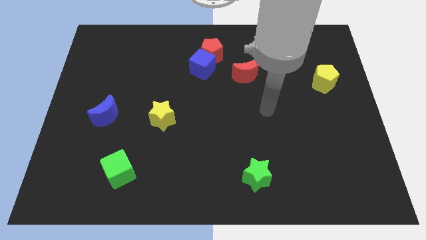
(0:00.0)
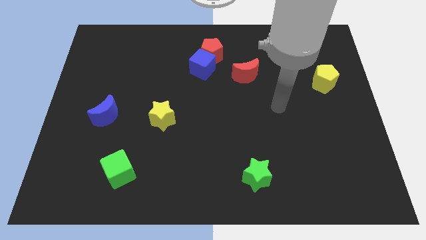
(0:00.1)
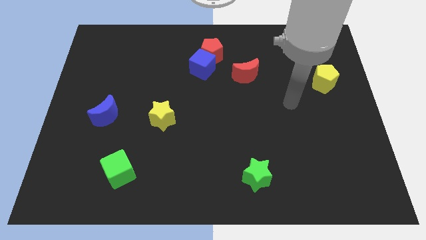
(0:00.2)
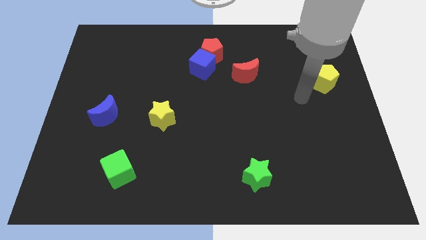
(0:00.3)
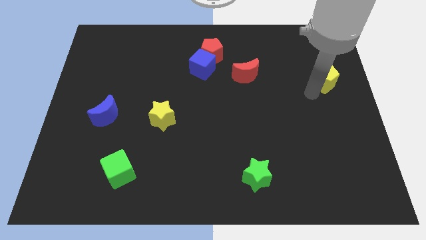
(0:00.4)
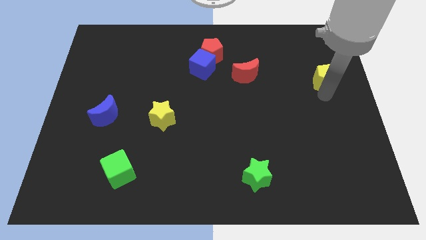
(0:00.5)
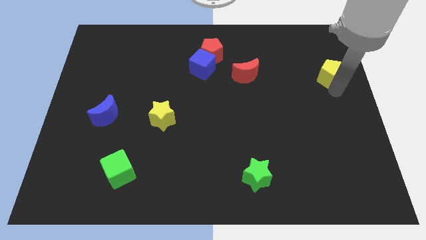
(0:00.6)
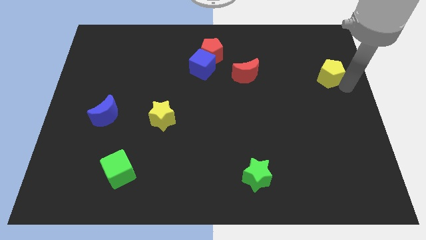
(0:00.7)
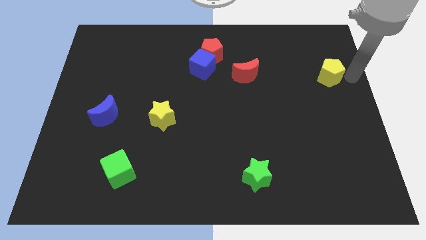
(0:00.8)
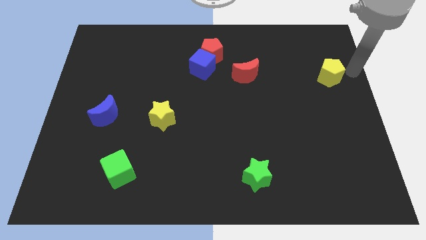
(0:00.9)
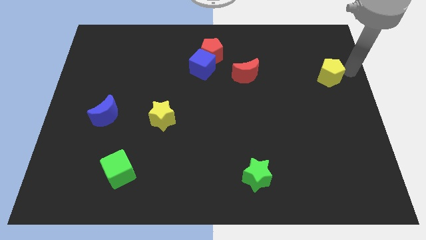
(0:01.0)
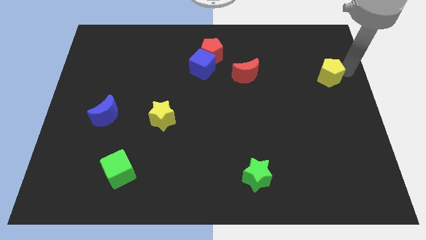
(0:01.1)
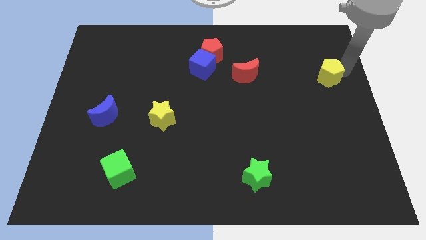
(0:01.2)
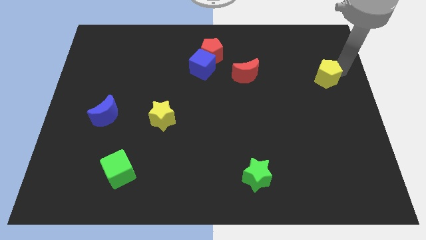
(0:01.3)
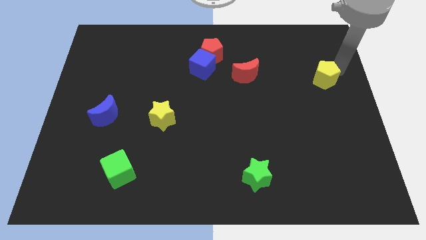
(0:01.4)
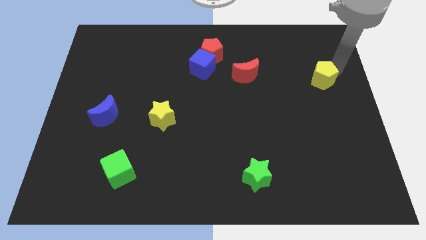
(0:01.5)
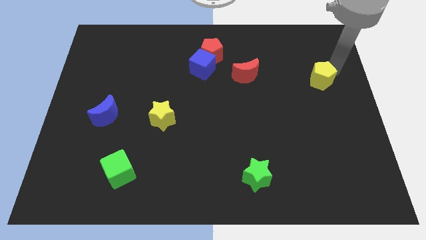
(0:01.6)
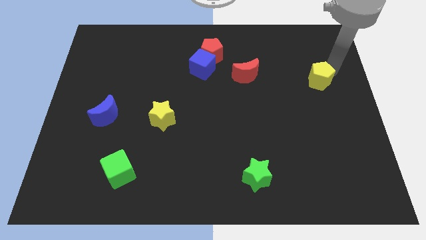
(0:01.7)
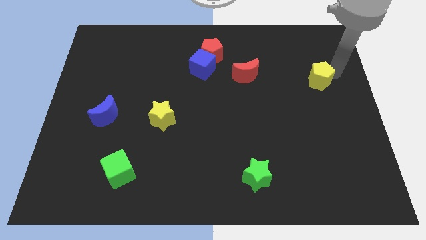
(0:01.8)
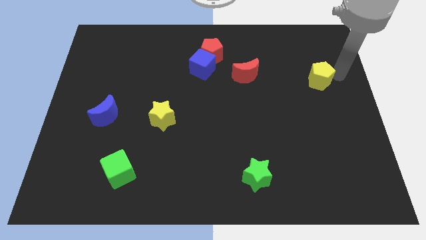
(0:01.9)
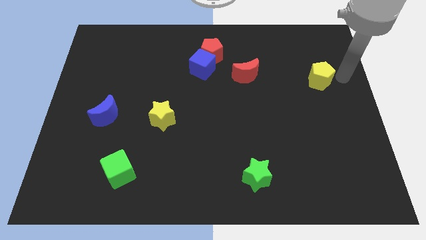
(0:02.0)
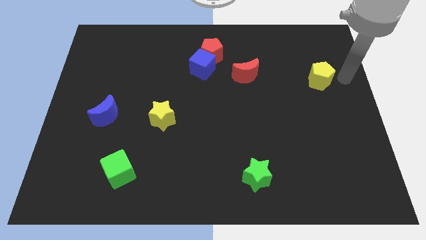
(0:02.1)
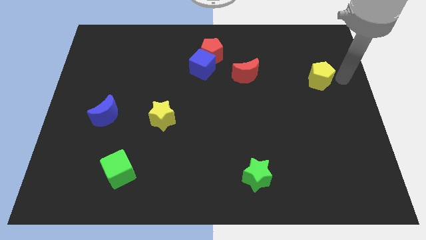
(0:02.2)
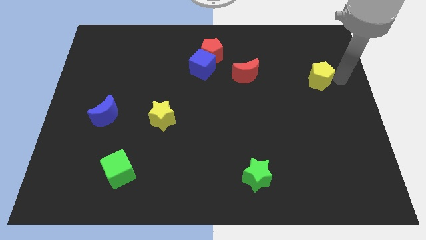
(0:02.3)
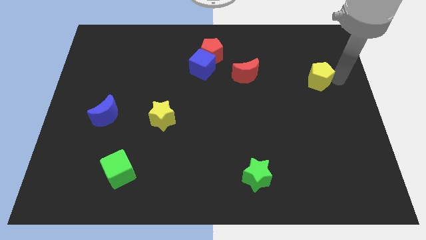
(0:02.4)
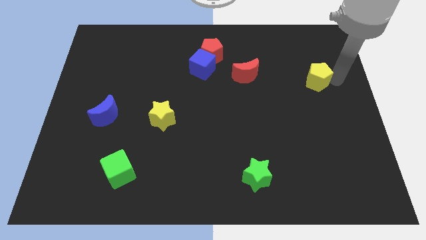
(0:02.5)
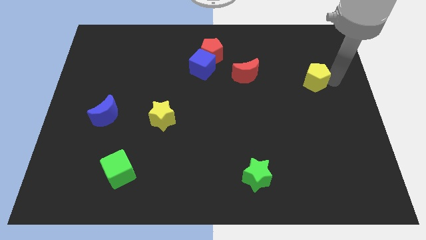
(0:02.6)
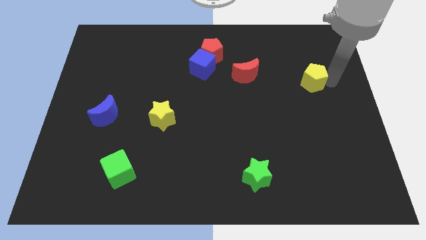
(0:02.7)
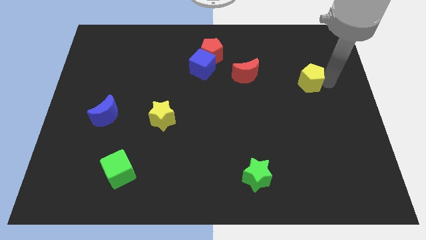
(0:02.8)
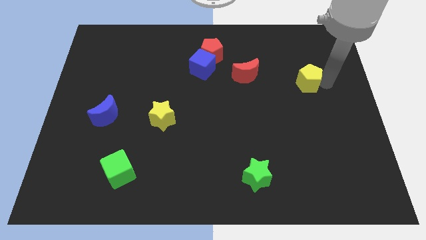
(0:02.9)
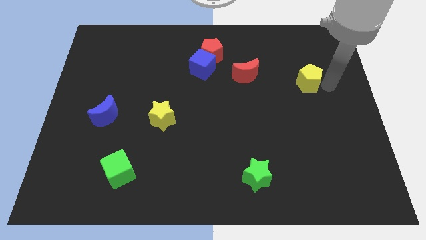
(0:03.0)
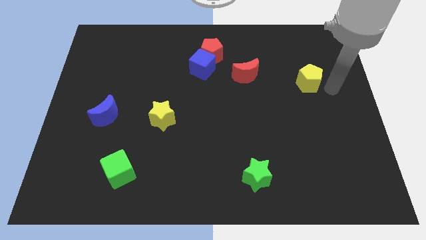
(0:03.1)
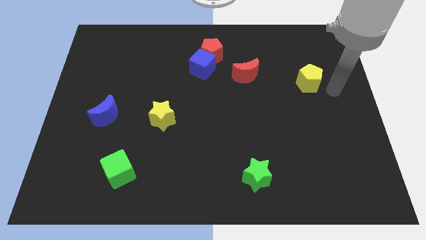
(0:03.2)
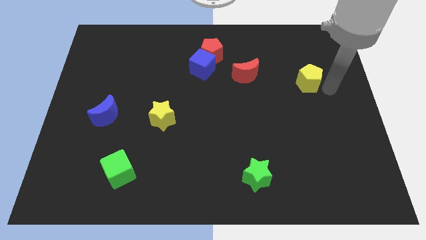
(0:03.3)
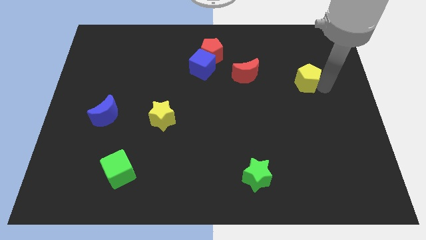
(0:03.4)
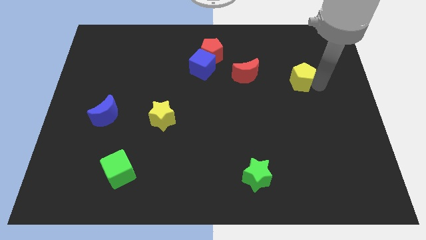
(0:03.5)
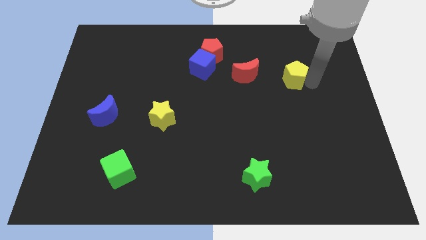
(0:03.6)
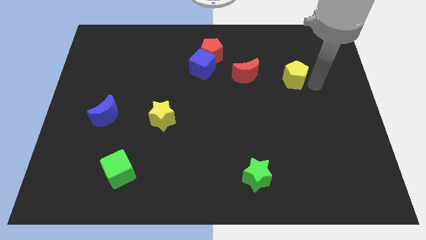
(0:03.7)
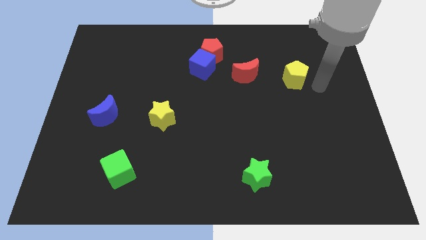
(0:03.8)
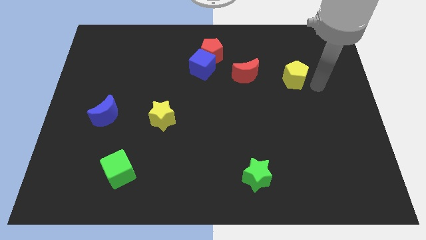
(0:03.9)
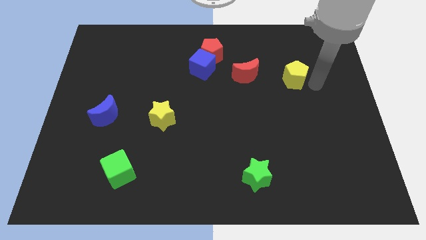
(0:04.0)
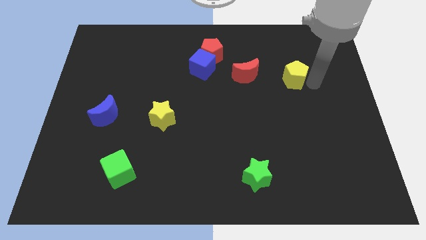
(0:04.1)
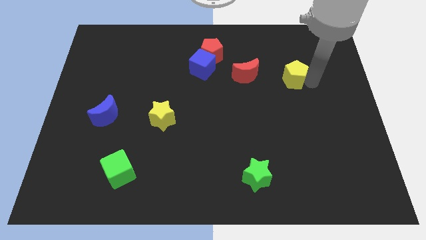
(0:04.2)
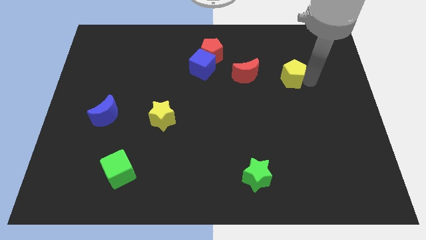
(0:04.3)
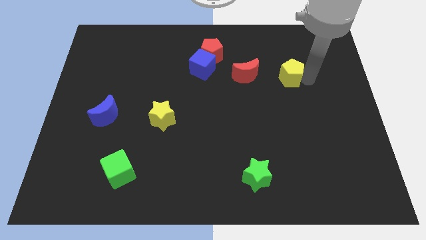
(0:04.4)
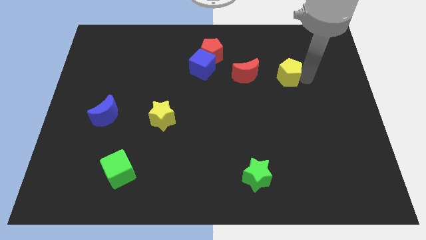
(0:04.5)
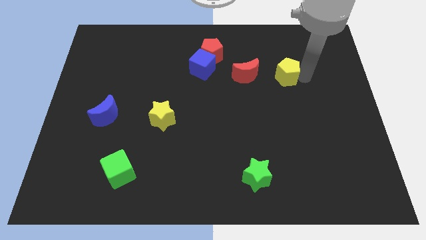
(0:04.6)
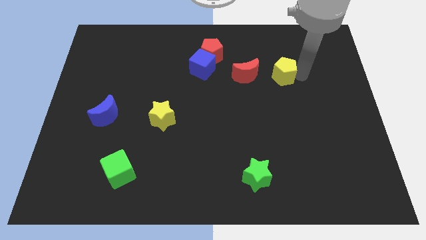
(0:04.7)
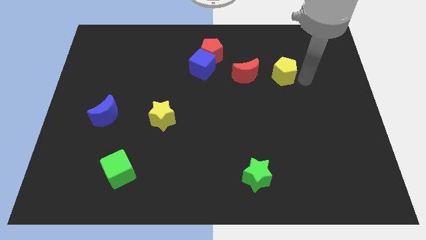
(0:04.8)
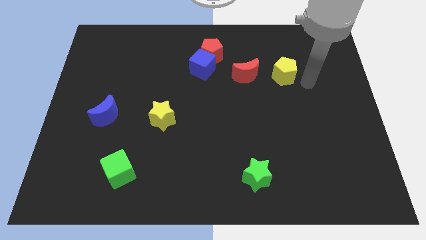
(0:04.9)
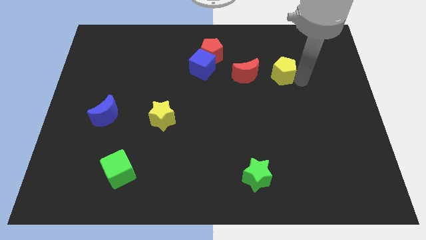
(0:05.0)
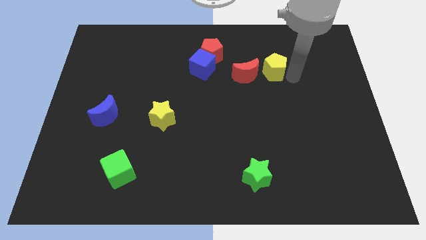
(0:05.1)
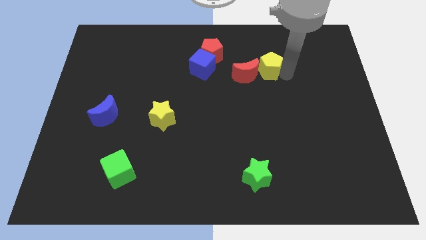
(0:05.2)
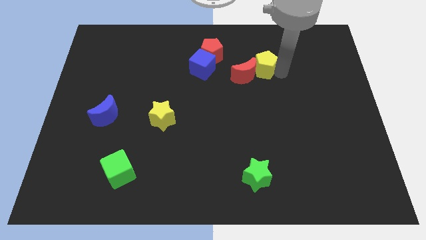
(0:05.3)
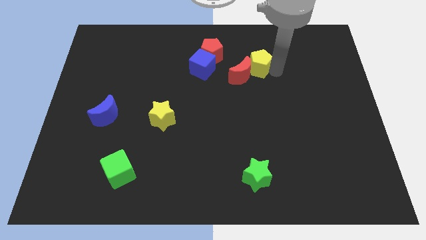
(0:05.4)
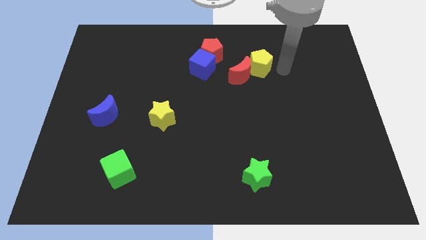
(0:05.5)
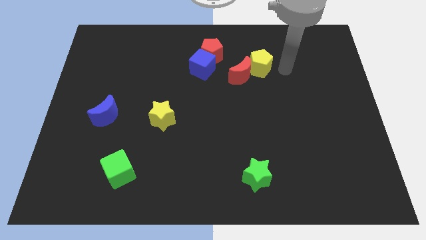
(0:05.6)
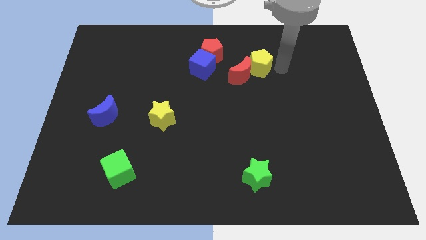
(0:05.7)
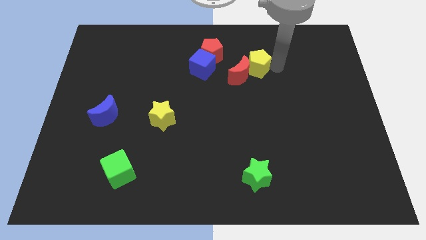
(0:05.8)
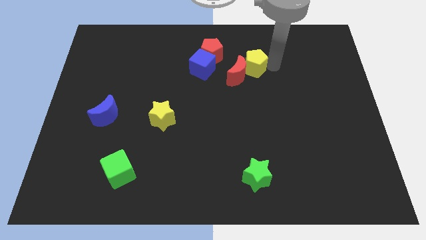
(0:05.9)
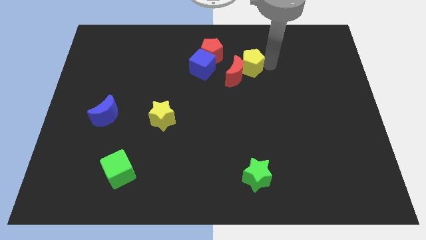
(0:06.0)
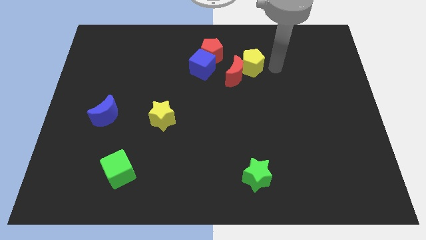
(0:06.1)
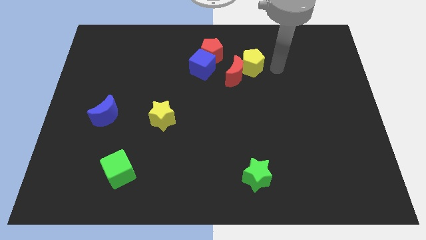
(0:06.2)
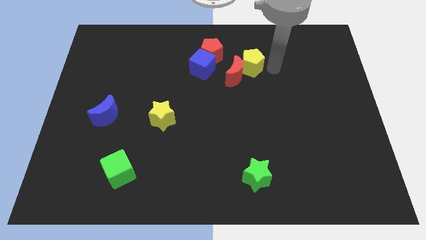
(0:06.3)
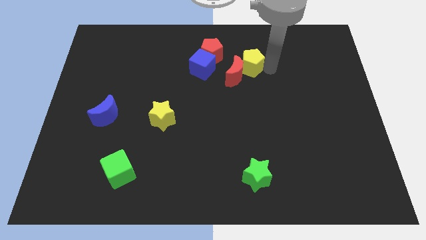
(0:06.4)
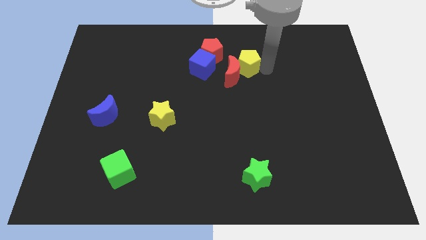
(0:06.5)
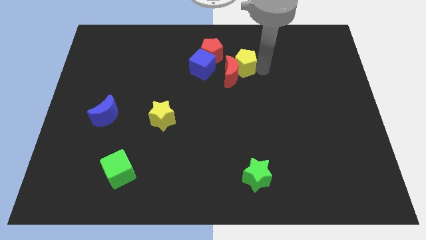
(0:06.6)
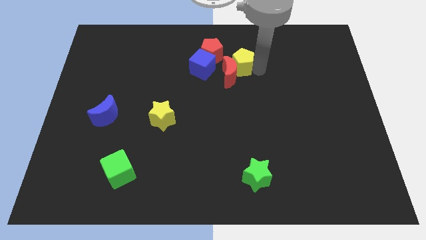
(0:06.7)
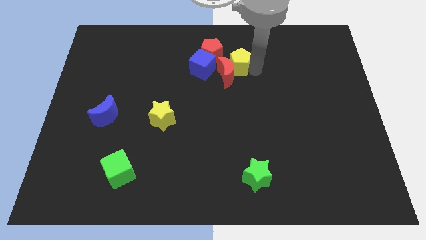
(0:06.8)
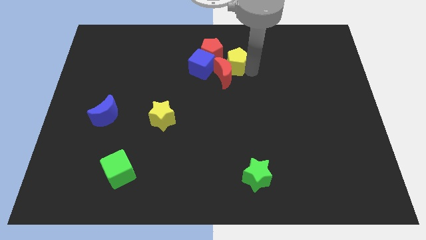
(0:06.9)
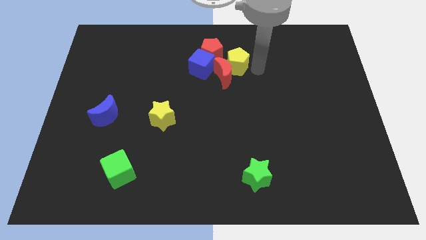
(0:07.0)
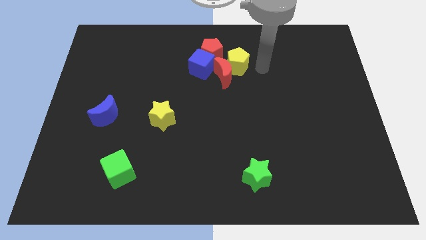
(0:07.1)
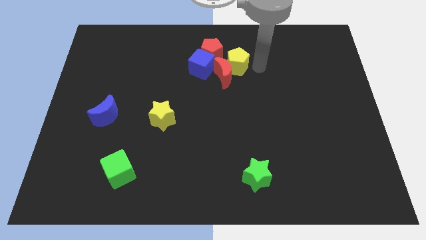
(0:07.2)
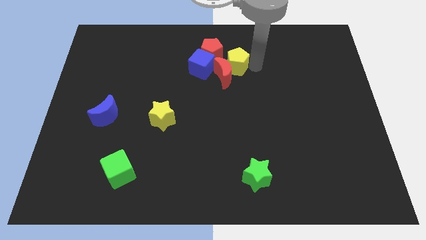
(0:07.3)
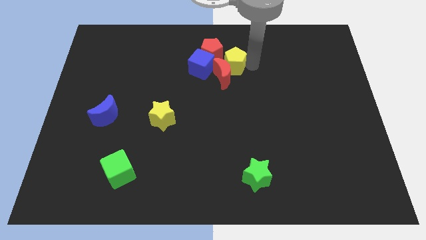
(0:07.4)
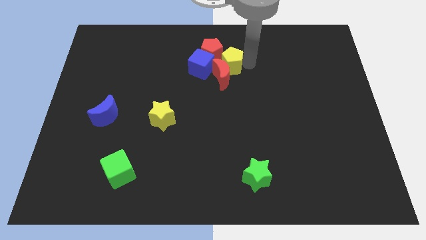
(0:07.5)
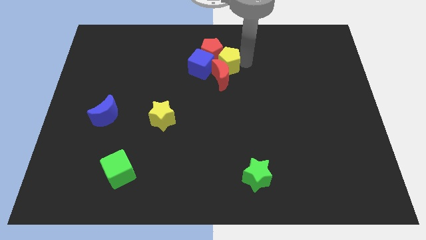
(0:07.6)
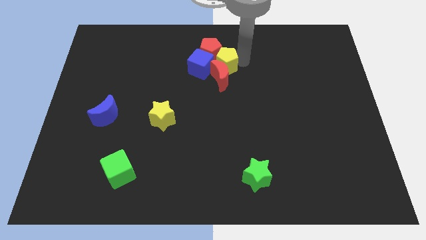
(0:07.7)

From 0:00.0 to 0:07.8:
move the yellow pentagon to the top left of the red moon
